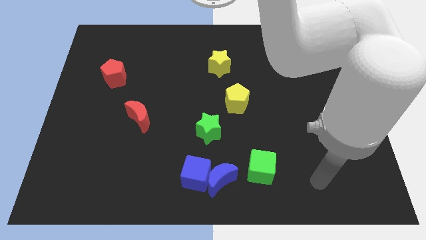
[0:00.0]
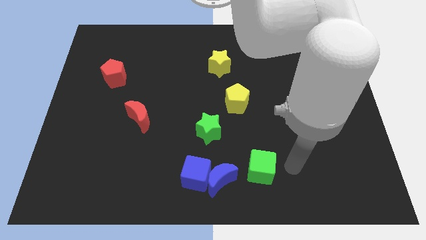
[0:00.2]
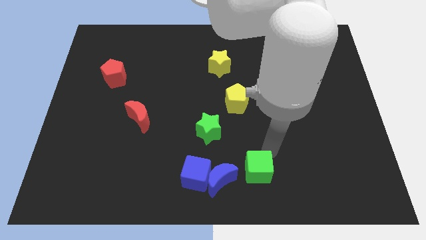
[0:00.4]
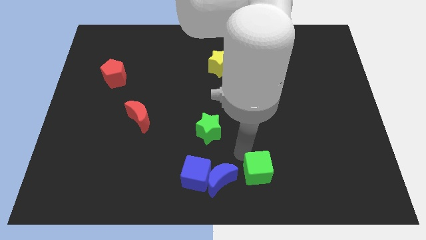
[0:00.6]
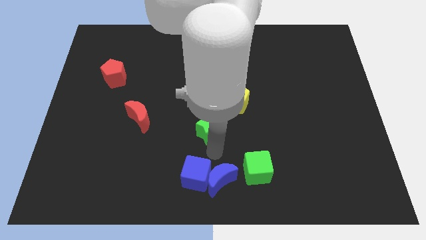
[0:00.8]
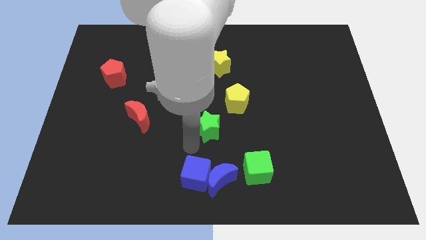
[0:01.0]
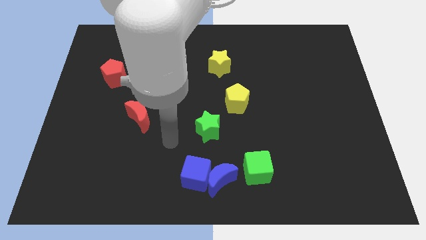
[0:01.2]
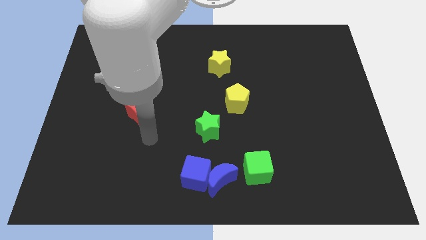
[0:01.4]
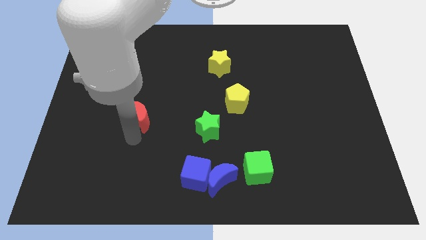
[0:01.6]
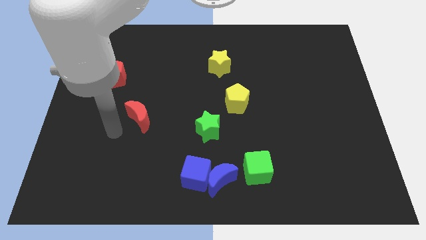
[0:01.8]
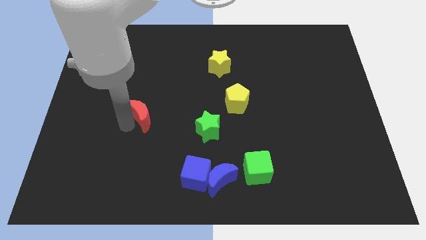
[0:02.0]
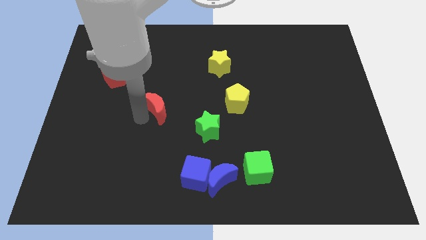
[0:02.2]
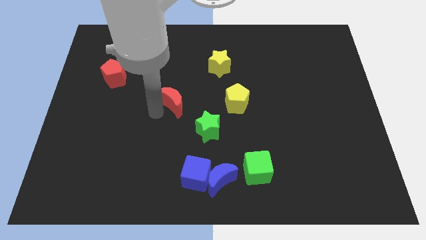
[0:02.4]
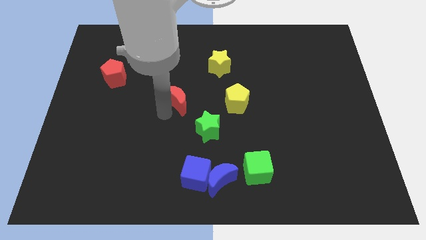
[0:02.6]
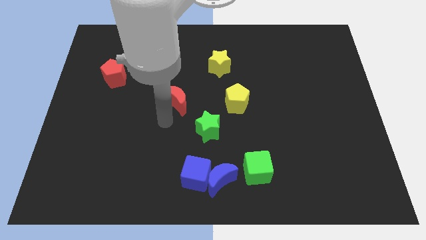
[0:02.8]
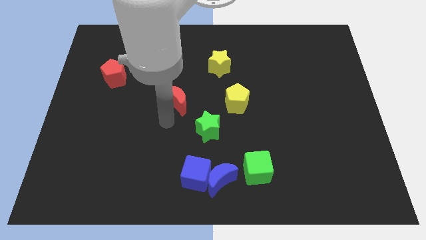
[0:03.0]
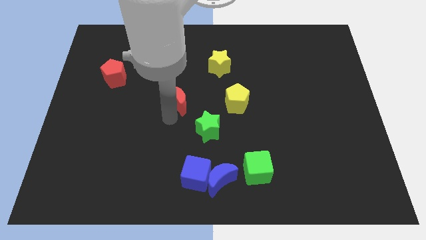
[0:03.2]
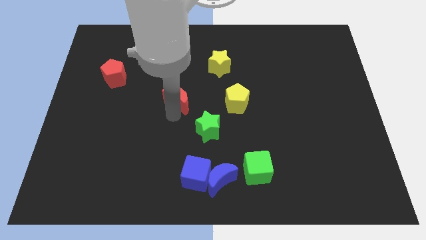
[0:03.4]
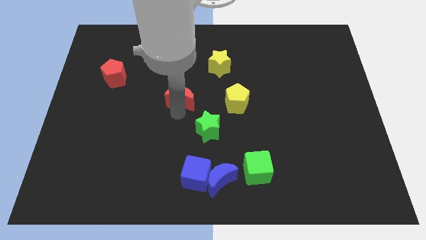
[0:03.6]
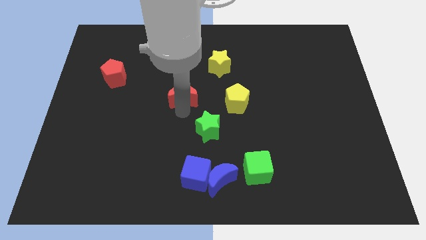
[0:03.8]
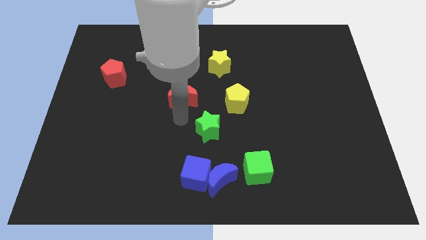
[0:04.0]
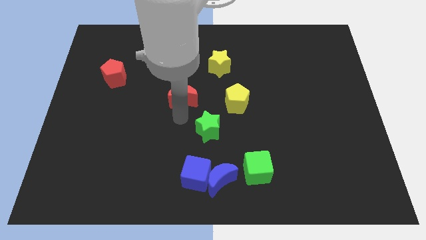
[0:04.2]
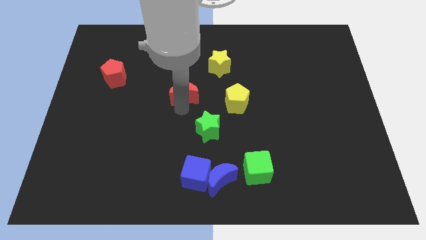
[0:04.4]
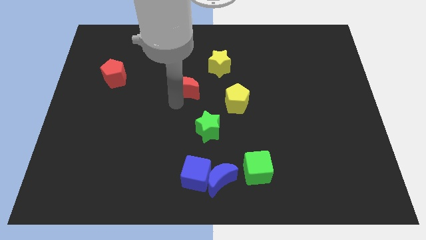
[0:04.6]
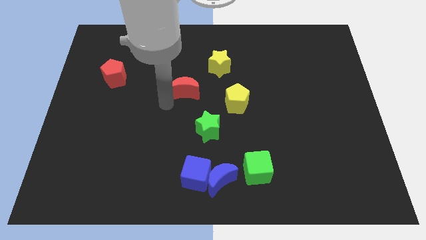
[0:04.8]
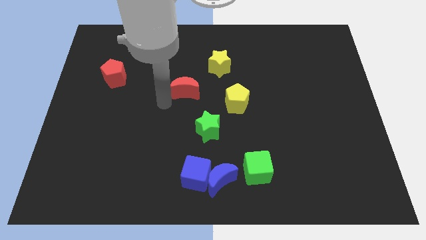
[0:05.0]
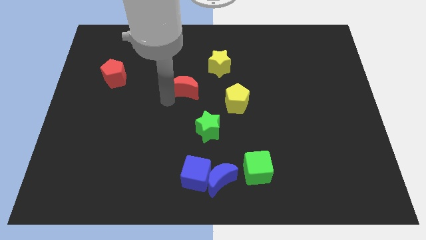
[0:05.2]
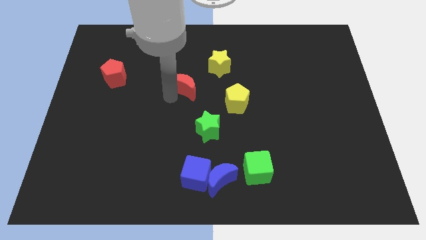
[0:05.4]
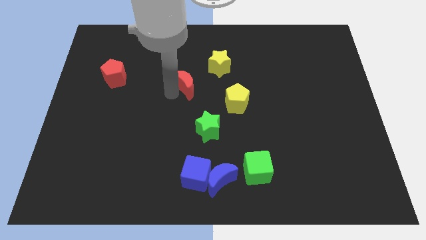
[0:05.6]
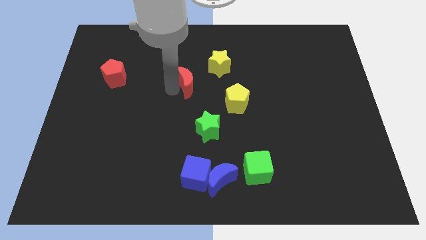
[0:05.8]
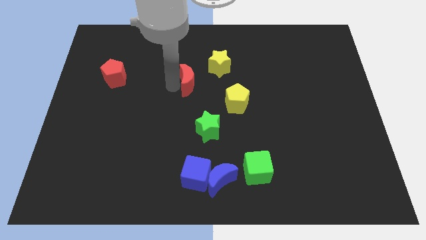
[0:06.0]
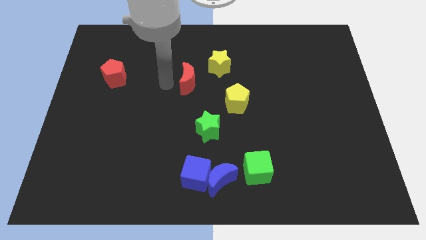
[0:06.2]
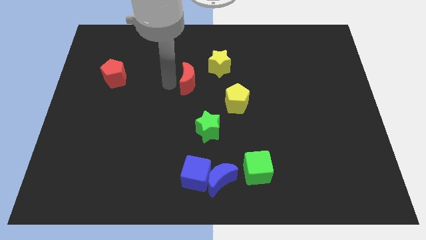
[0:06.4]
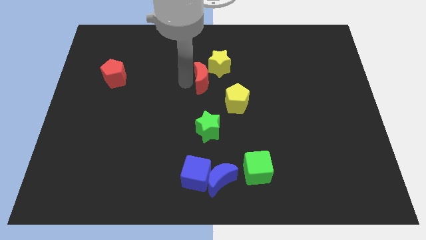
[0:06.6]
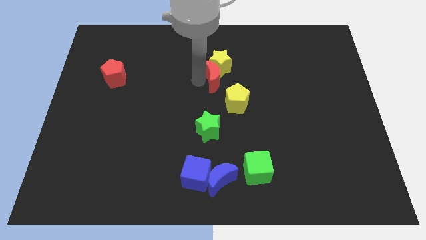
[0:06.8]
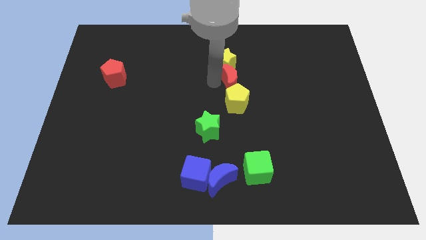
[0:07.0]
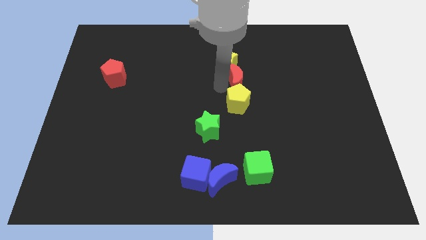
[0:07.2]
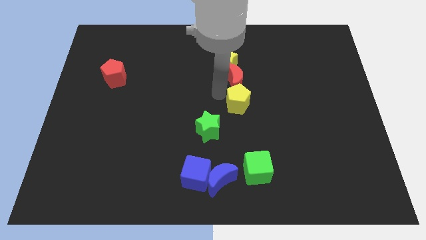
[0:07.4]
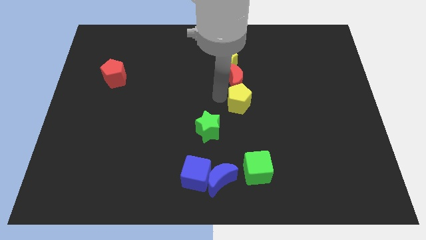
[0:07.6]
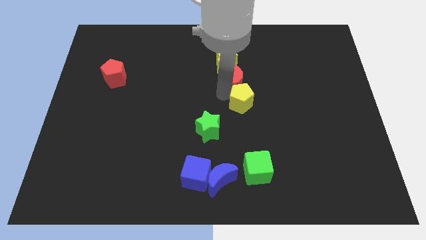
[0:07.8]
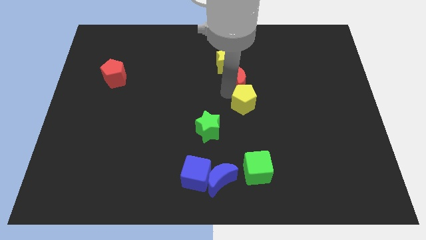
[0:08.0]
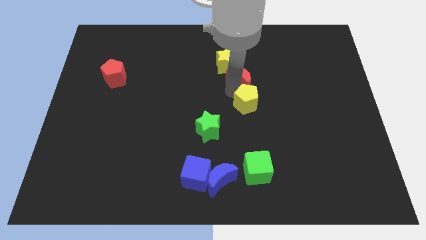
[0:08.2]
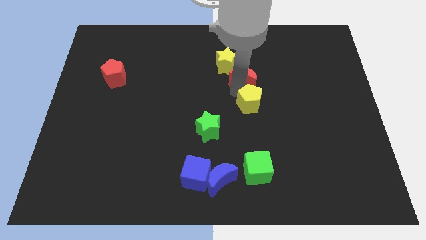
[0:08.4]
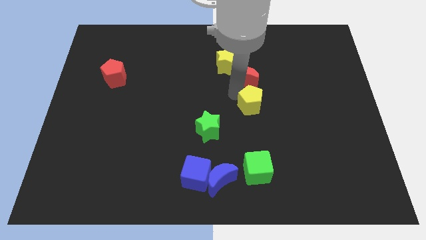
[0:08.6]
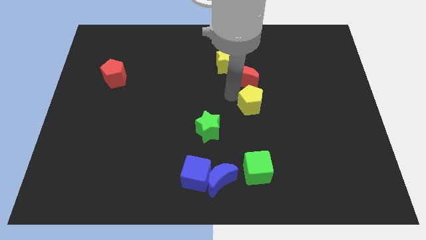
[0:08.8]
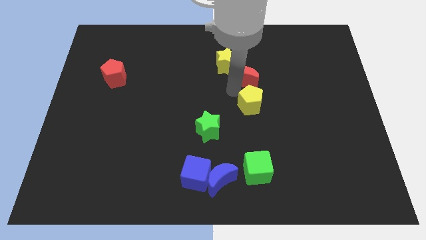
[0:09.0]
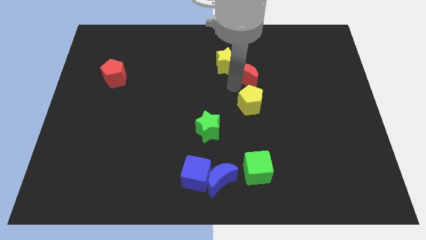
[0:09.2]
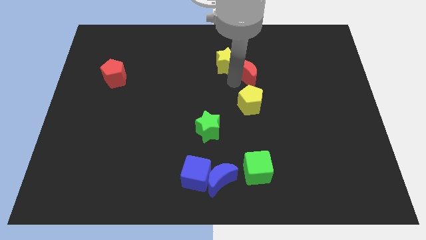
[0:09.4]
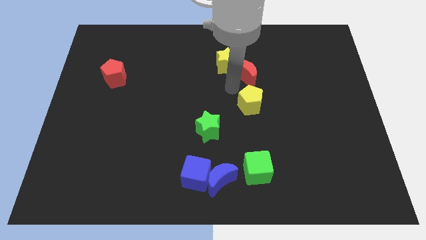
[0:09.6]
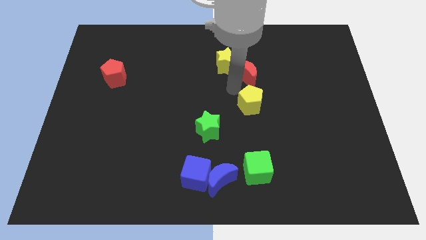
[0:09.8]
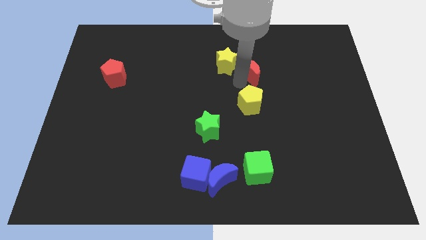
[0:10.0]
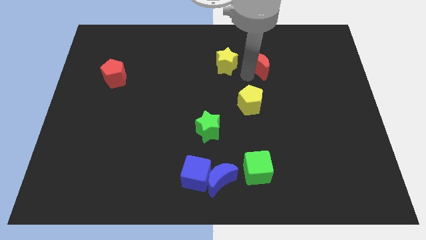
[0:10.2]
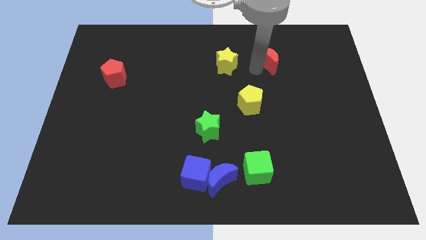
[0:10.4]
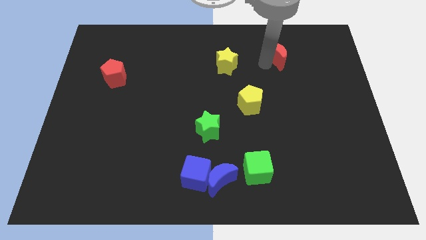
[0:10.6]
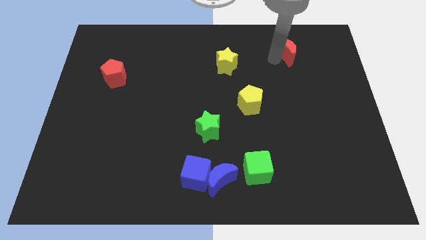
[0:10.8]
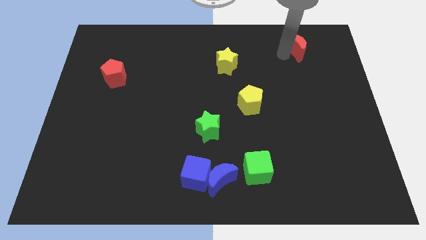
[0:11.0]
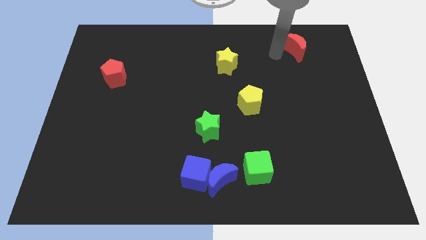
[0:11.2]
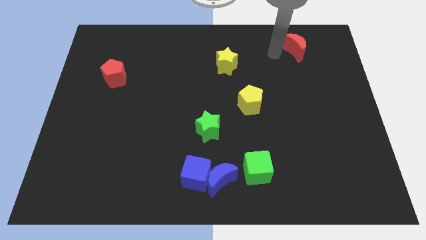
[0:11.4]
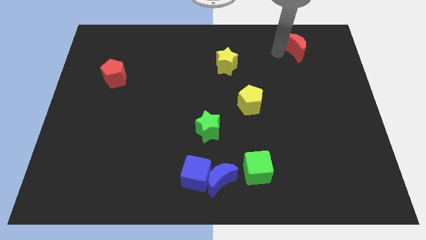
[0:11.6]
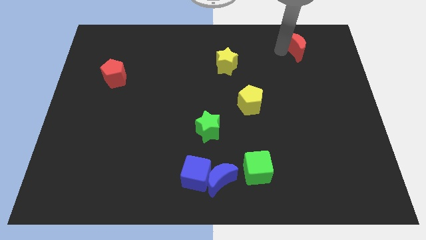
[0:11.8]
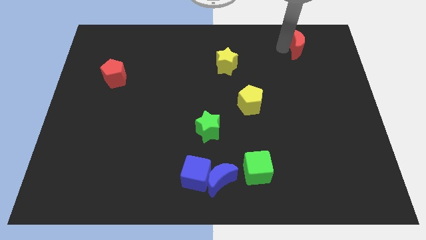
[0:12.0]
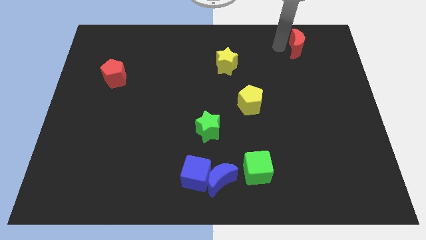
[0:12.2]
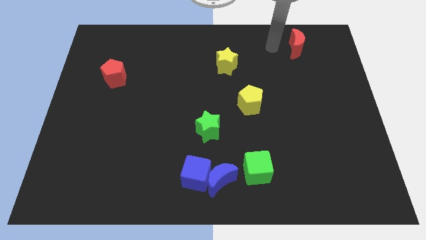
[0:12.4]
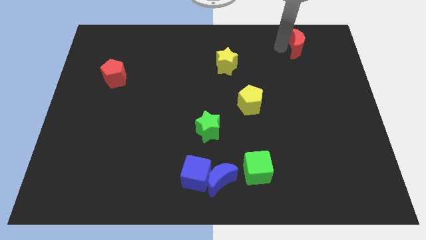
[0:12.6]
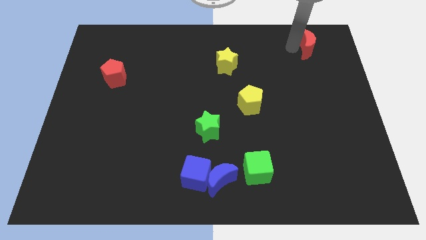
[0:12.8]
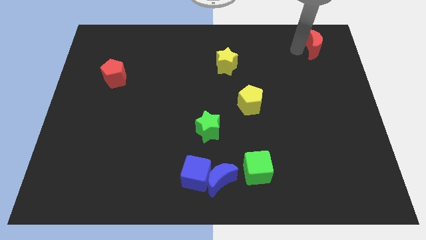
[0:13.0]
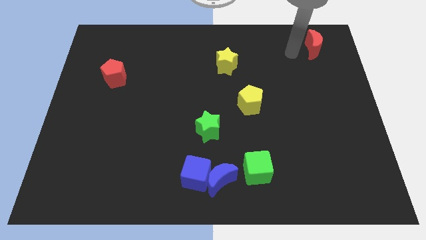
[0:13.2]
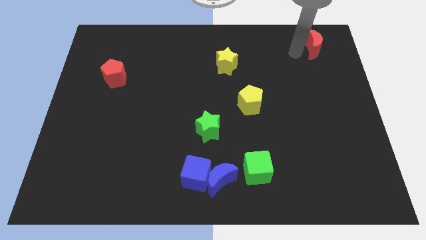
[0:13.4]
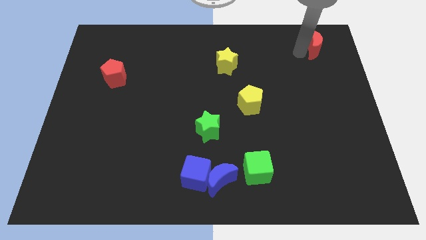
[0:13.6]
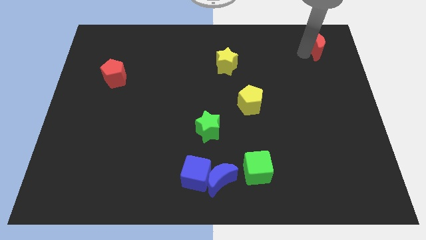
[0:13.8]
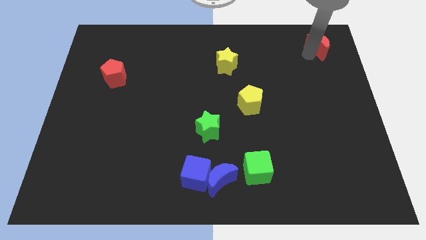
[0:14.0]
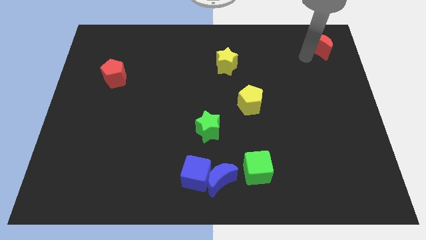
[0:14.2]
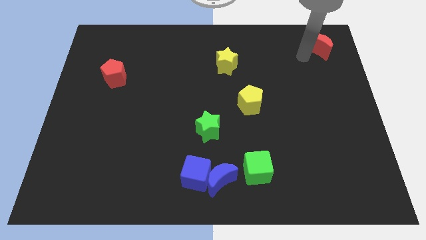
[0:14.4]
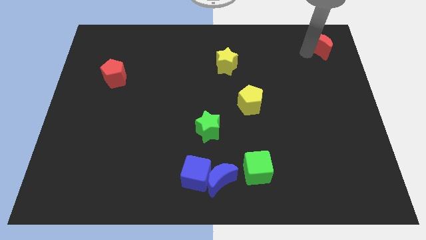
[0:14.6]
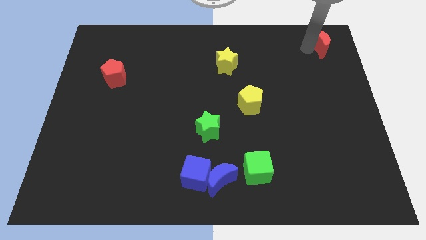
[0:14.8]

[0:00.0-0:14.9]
move the red moon to the top right
